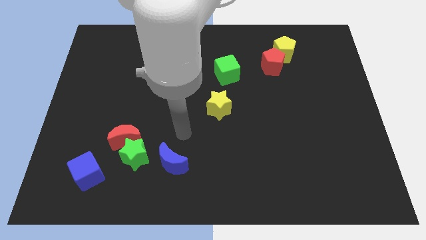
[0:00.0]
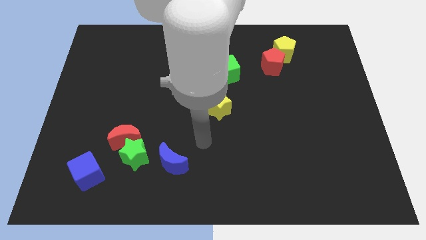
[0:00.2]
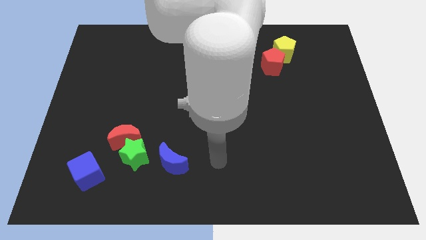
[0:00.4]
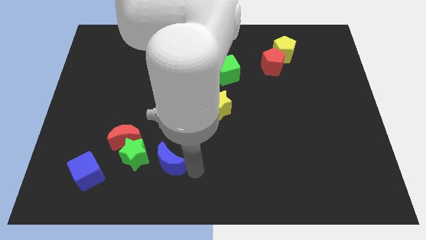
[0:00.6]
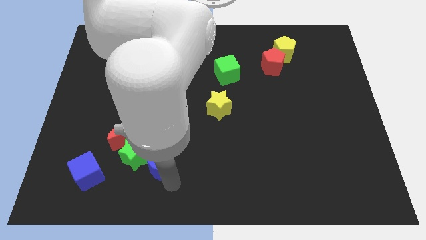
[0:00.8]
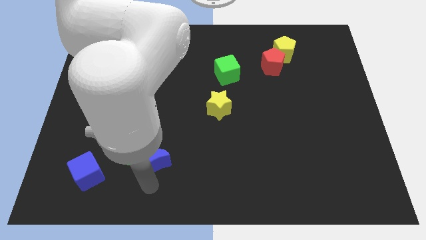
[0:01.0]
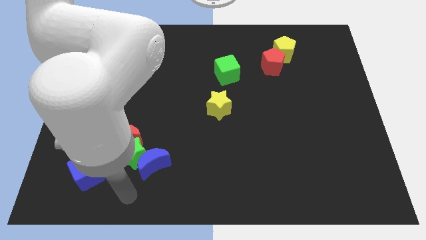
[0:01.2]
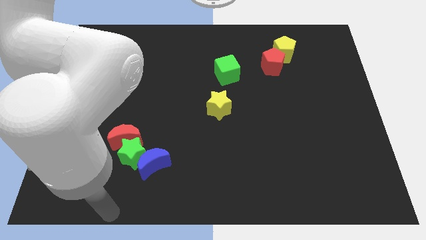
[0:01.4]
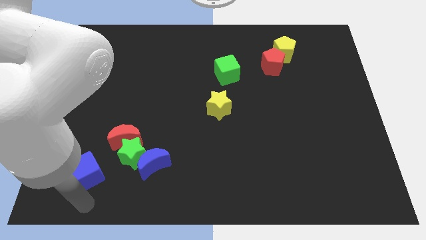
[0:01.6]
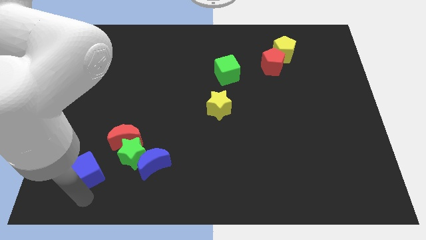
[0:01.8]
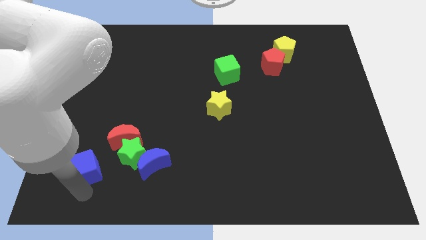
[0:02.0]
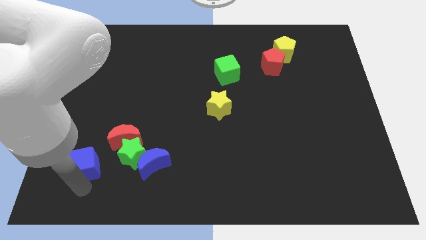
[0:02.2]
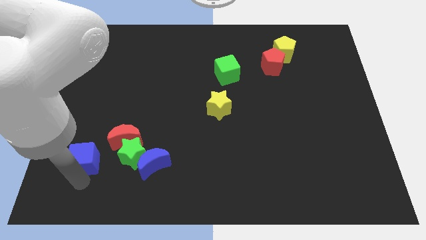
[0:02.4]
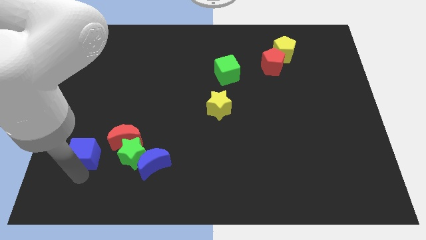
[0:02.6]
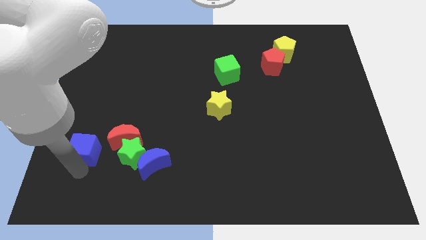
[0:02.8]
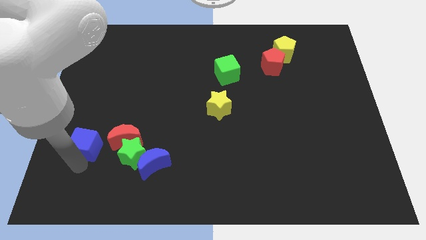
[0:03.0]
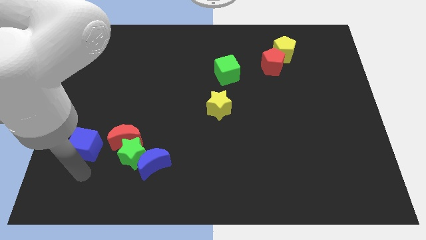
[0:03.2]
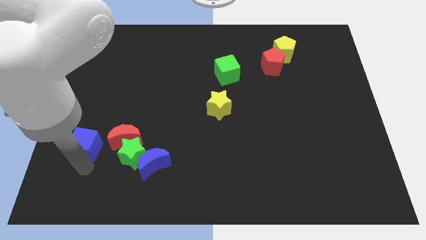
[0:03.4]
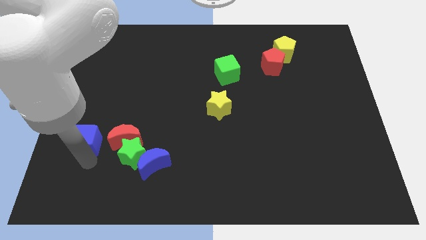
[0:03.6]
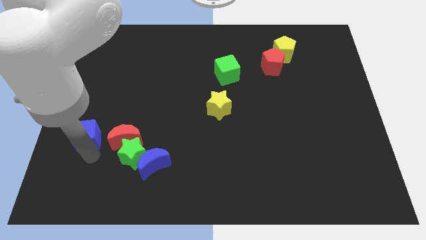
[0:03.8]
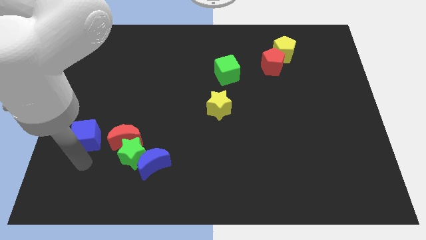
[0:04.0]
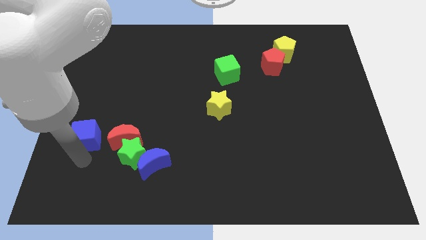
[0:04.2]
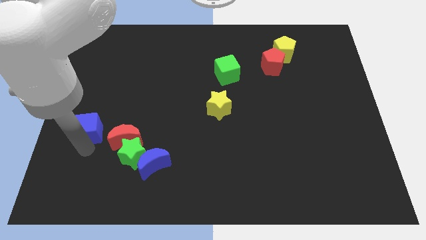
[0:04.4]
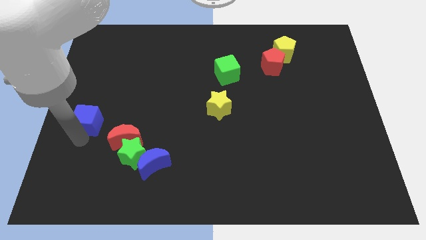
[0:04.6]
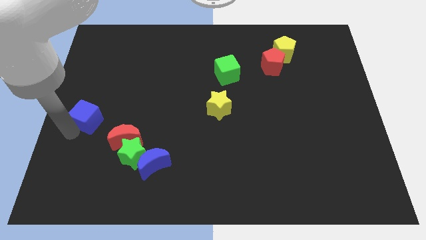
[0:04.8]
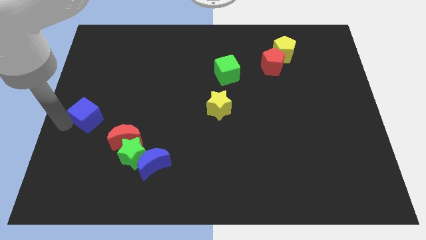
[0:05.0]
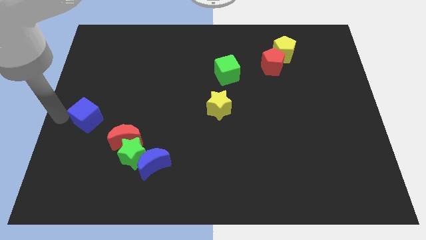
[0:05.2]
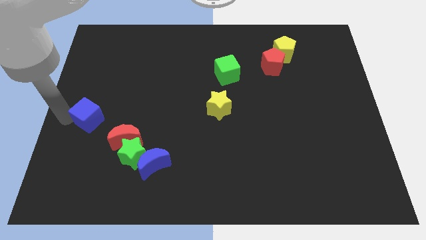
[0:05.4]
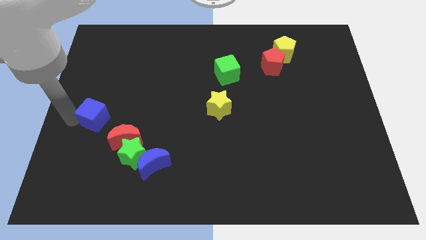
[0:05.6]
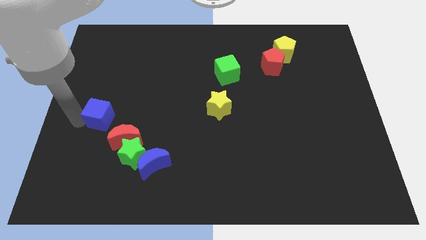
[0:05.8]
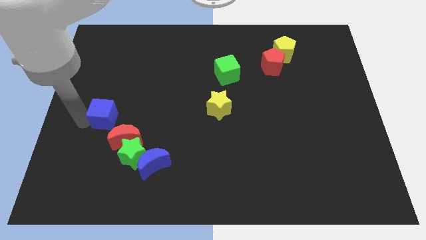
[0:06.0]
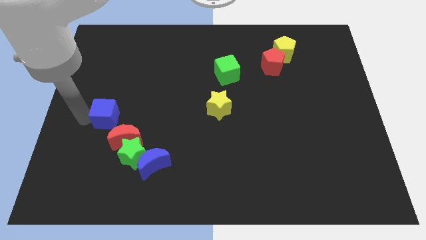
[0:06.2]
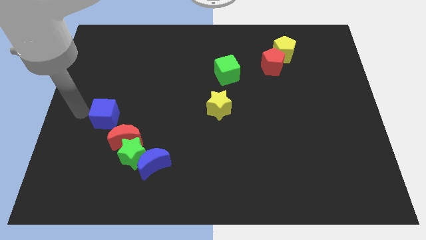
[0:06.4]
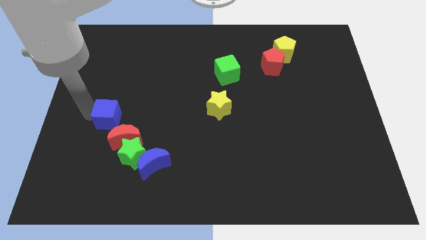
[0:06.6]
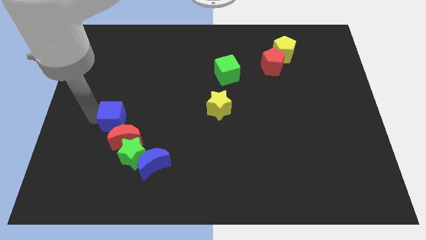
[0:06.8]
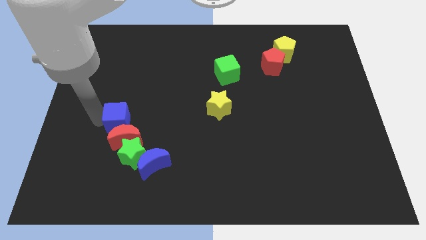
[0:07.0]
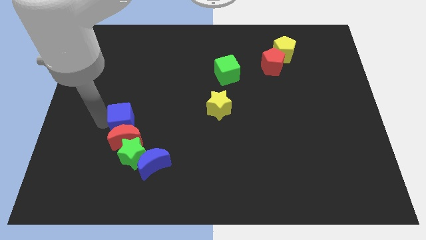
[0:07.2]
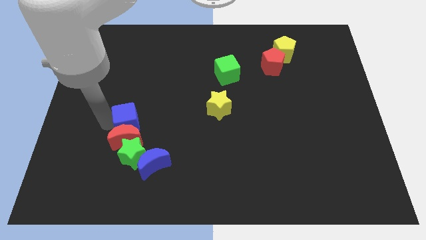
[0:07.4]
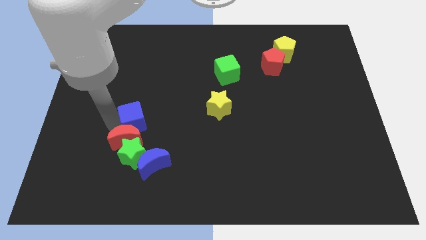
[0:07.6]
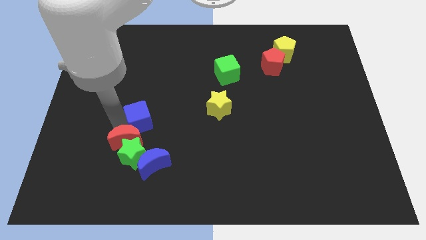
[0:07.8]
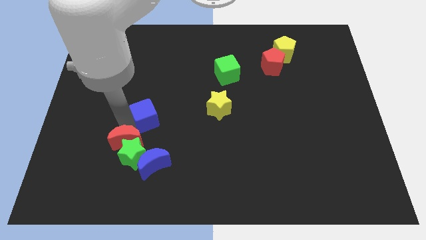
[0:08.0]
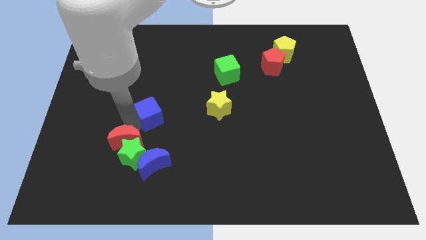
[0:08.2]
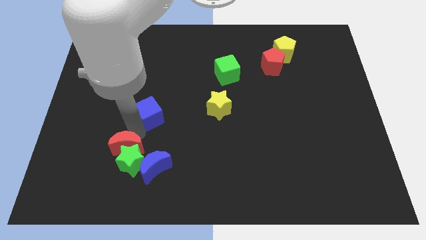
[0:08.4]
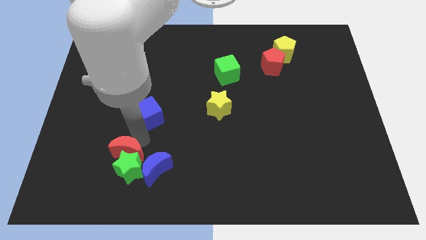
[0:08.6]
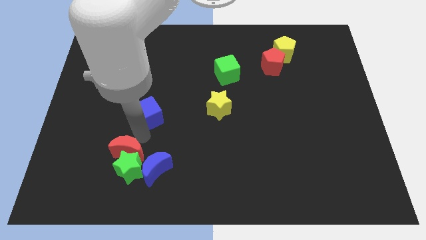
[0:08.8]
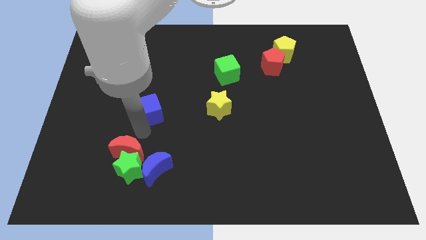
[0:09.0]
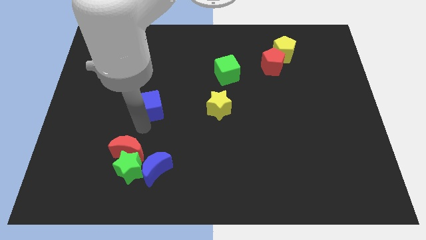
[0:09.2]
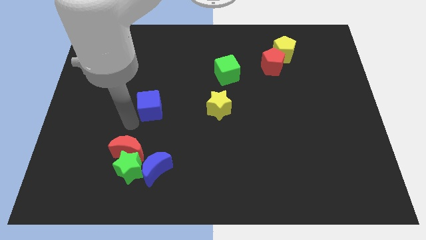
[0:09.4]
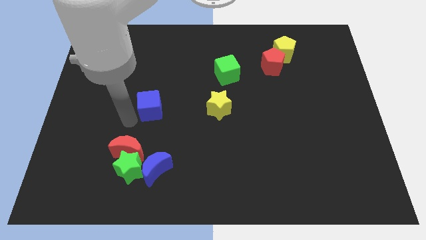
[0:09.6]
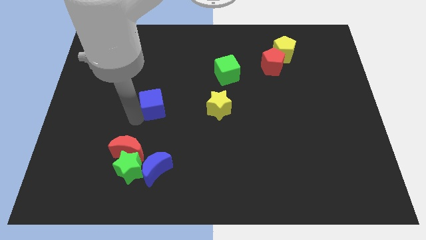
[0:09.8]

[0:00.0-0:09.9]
slide the blue cube upwards and right

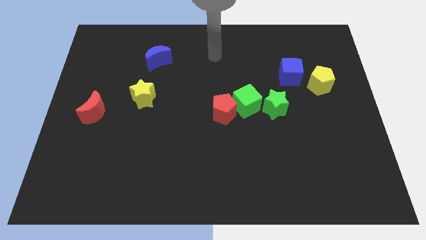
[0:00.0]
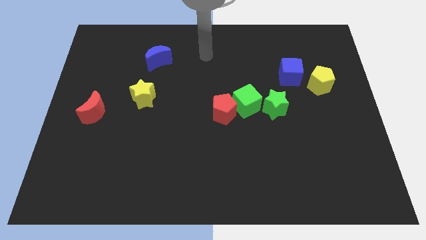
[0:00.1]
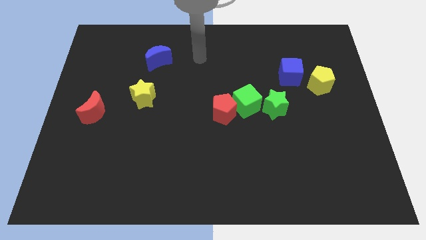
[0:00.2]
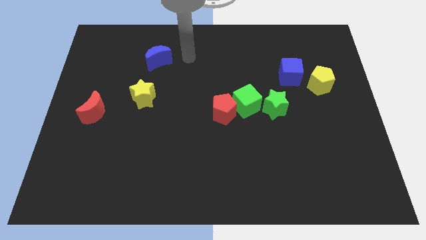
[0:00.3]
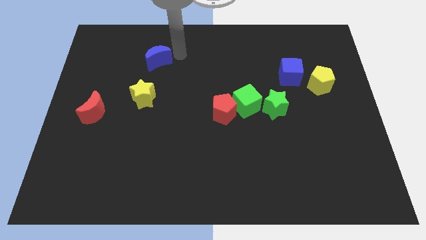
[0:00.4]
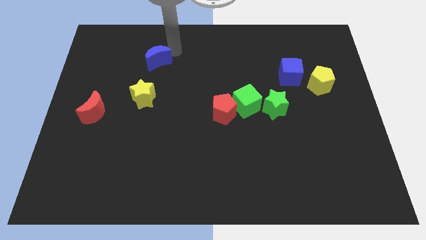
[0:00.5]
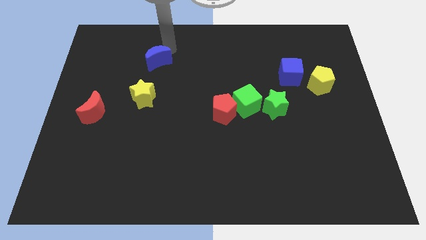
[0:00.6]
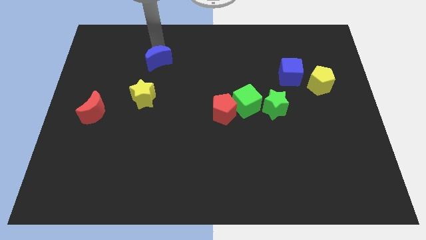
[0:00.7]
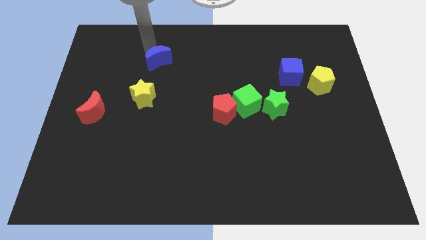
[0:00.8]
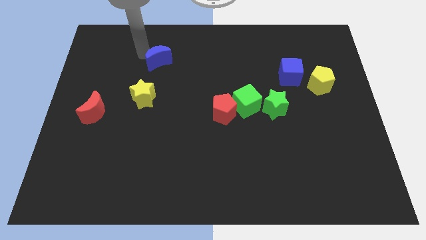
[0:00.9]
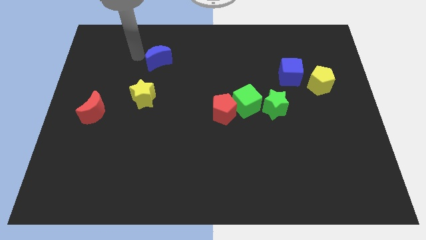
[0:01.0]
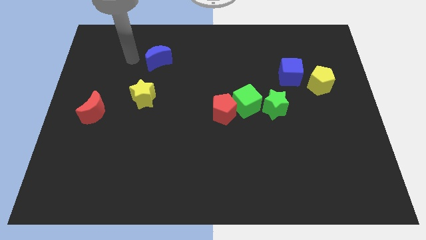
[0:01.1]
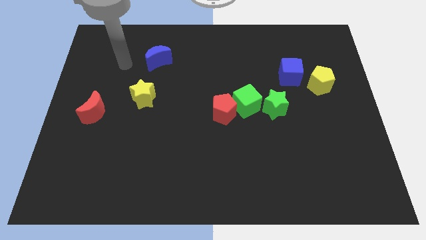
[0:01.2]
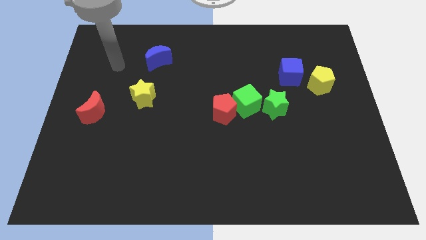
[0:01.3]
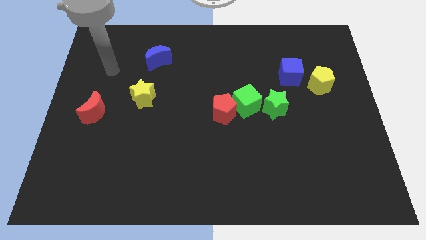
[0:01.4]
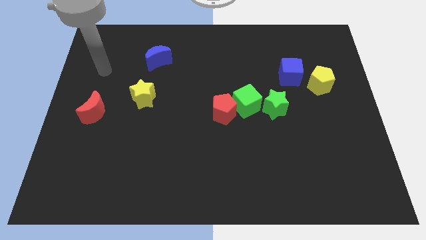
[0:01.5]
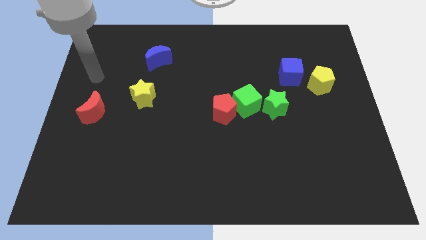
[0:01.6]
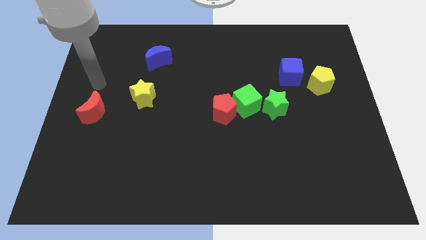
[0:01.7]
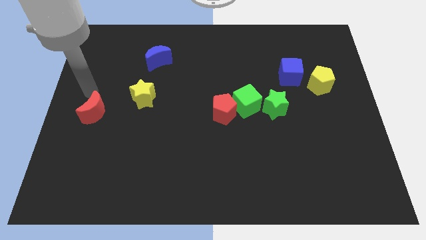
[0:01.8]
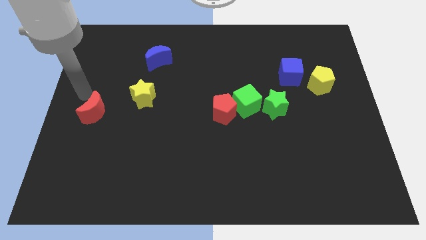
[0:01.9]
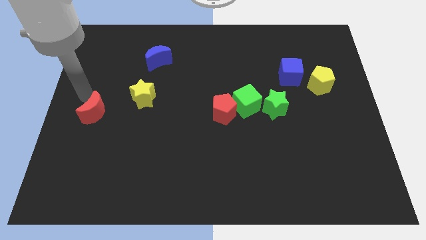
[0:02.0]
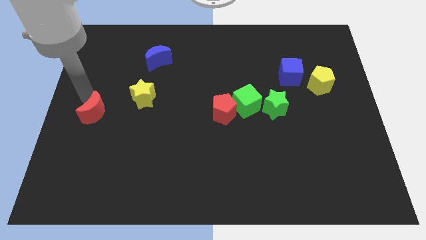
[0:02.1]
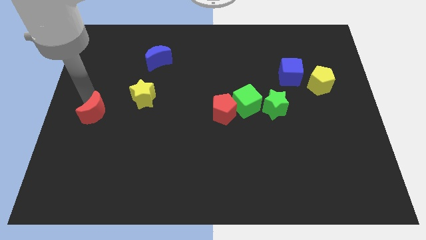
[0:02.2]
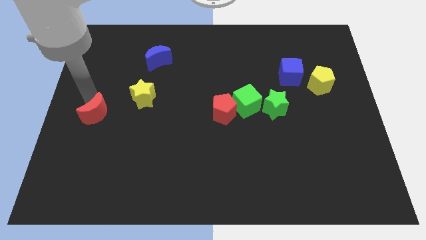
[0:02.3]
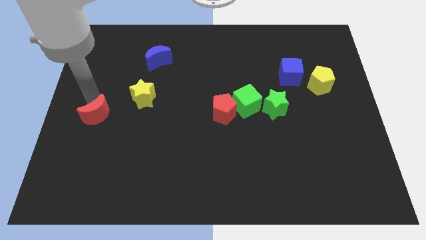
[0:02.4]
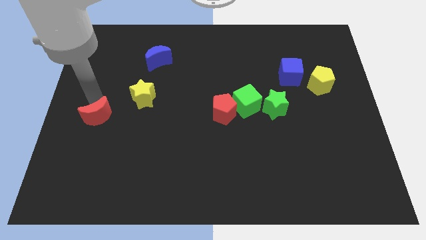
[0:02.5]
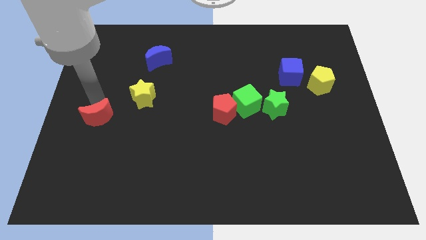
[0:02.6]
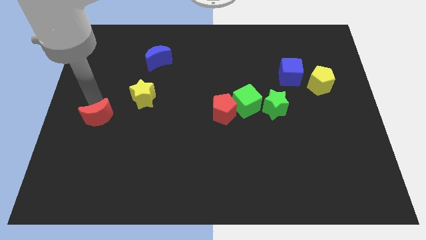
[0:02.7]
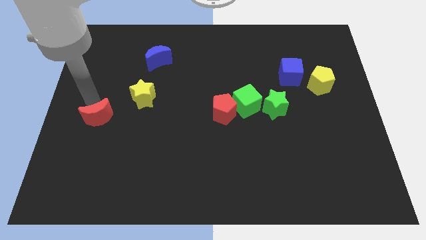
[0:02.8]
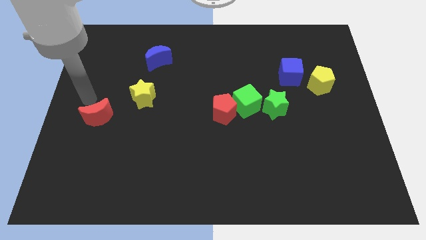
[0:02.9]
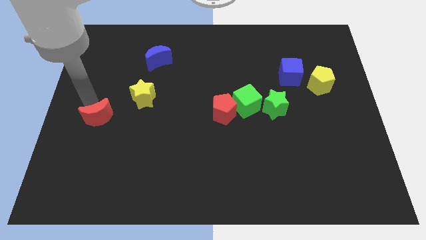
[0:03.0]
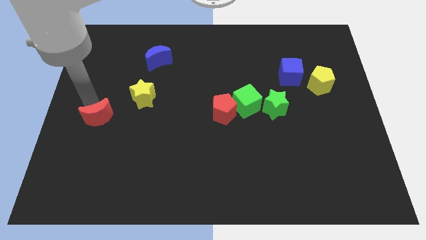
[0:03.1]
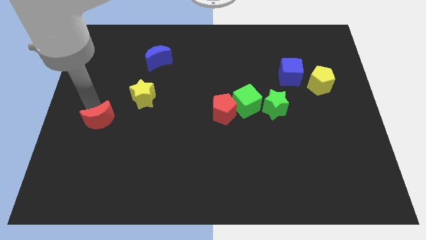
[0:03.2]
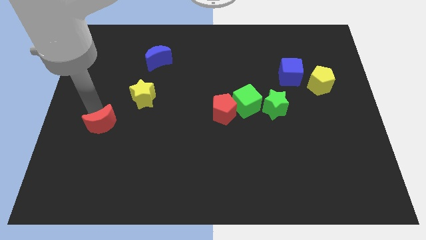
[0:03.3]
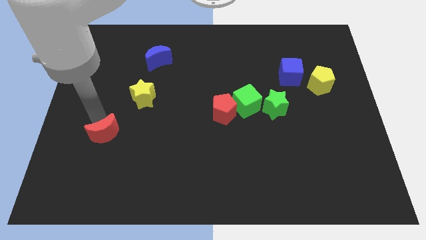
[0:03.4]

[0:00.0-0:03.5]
push the red moon slightly down and right diagonally
